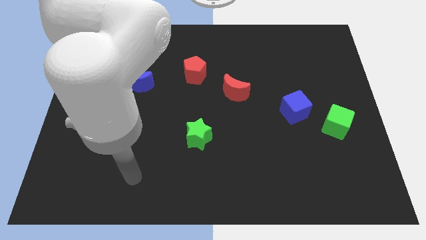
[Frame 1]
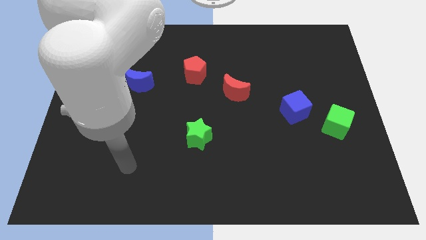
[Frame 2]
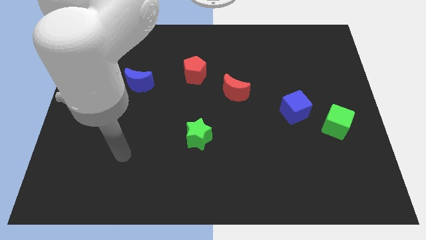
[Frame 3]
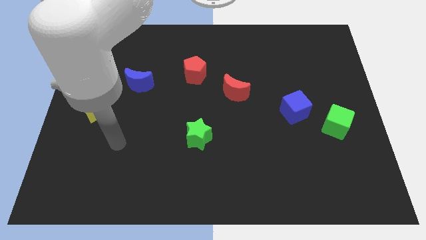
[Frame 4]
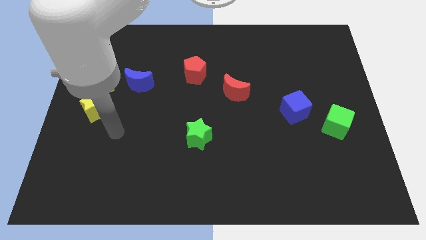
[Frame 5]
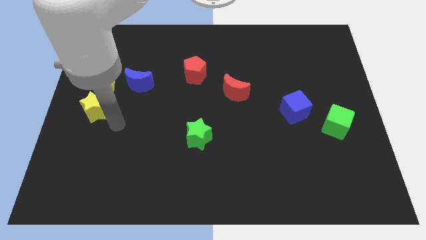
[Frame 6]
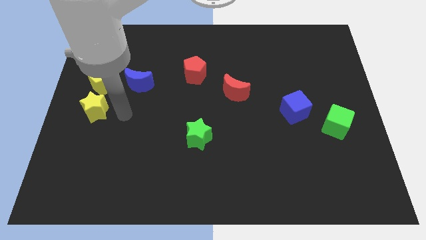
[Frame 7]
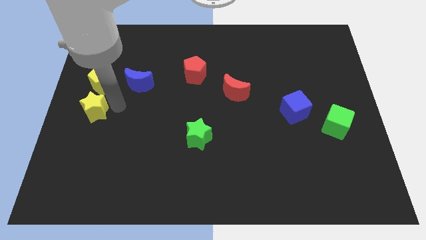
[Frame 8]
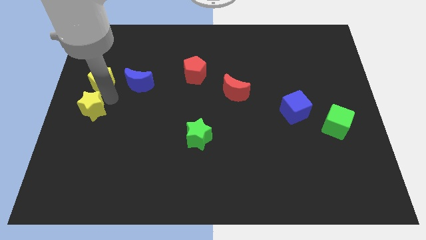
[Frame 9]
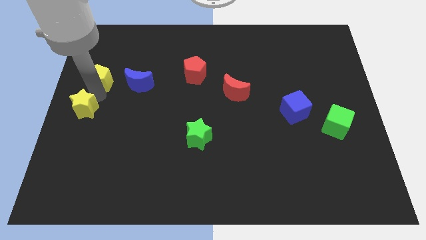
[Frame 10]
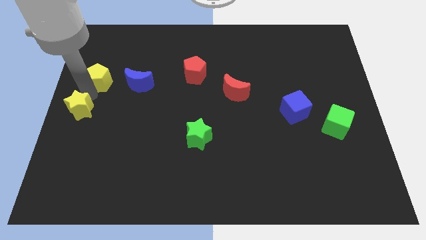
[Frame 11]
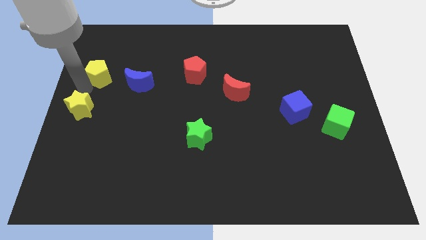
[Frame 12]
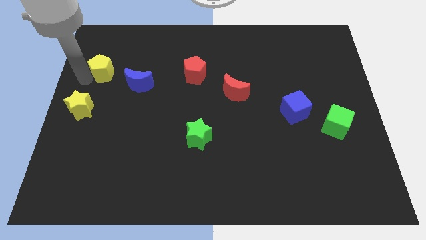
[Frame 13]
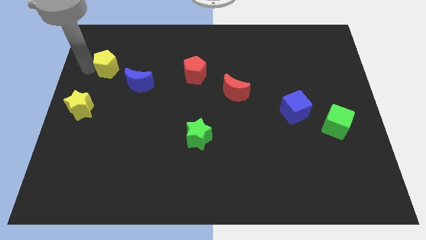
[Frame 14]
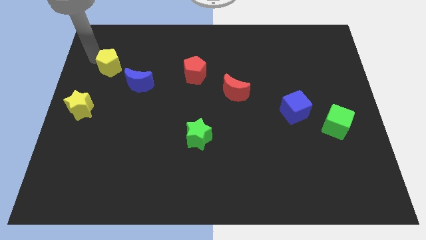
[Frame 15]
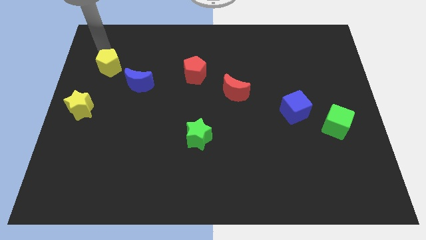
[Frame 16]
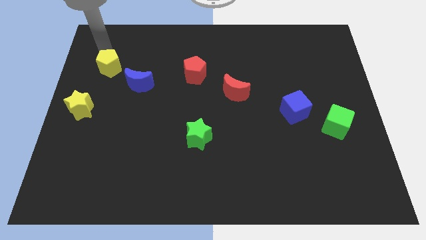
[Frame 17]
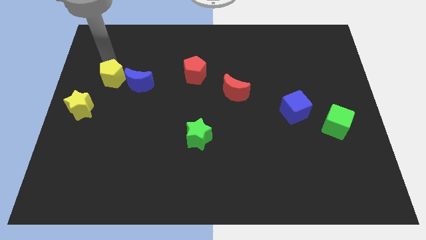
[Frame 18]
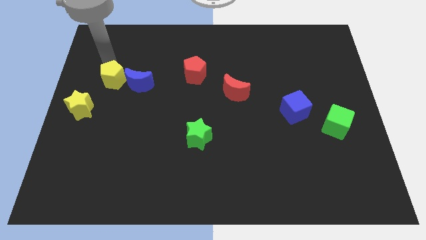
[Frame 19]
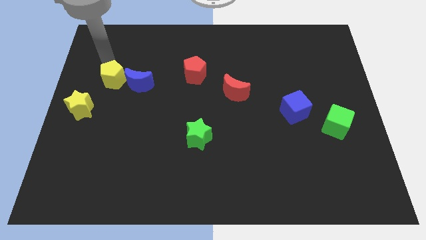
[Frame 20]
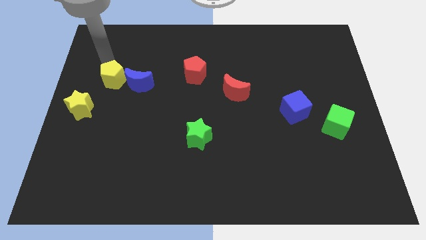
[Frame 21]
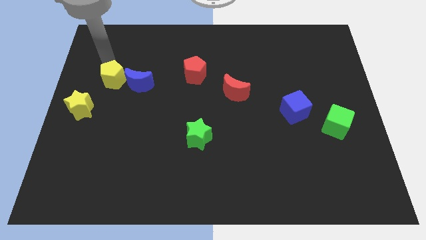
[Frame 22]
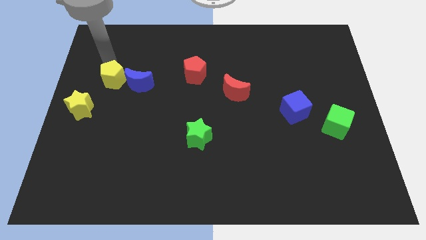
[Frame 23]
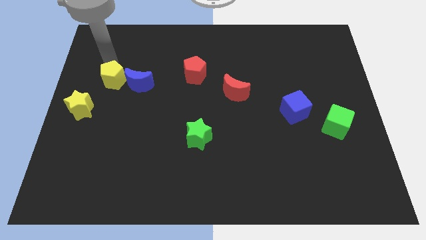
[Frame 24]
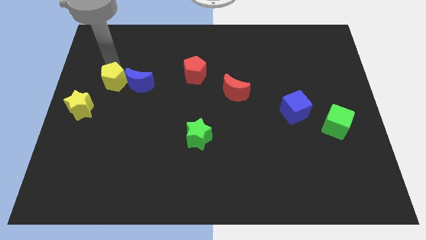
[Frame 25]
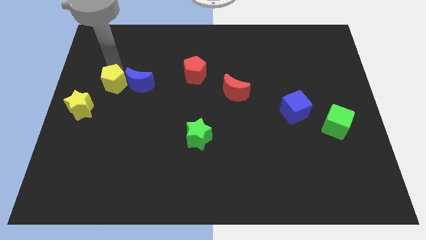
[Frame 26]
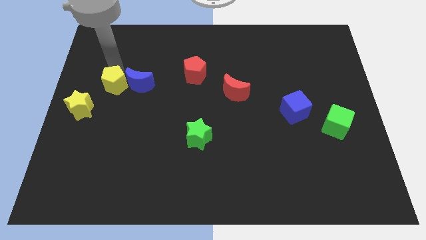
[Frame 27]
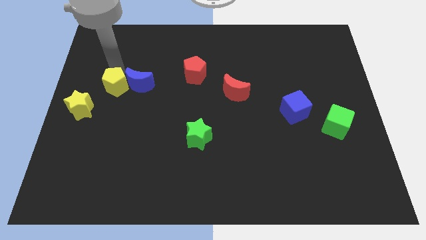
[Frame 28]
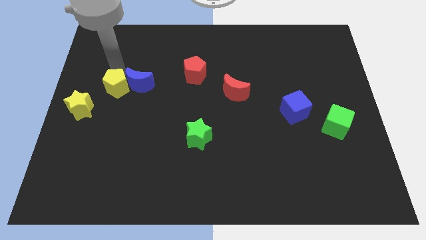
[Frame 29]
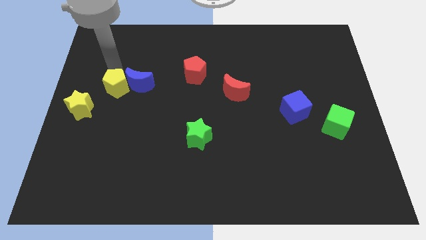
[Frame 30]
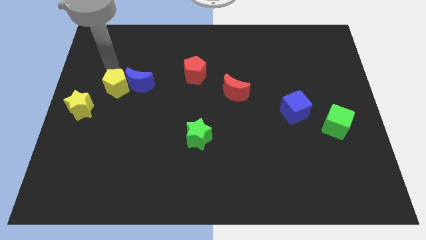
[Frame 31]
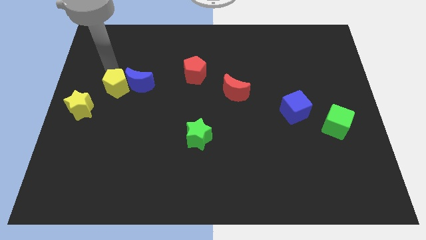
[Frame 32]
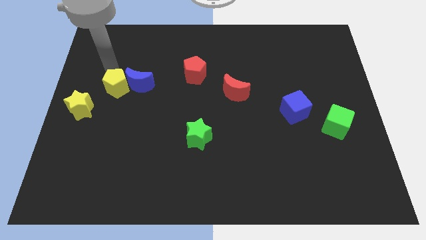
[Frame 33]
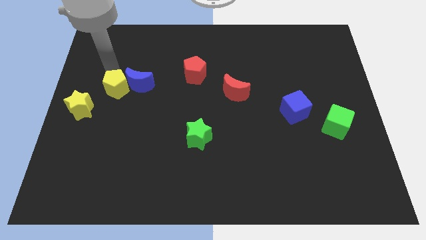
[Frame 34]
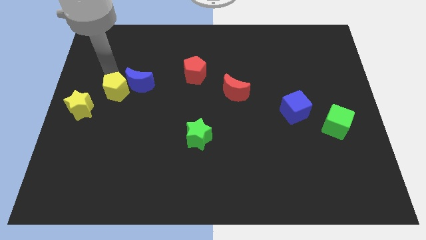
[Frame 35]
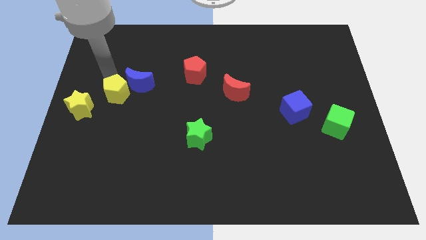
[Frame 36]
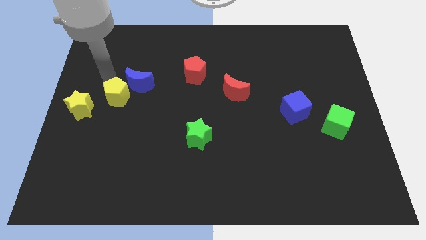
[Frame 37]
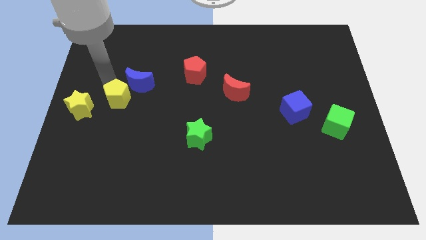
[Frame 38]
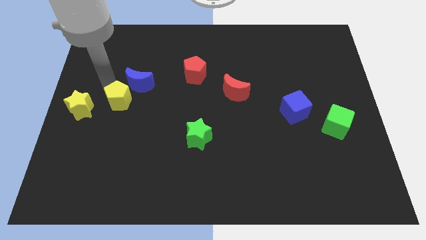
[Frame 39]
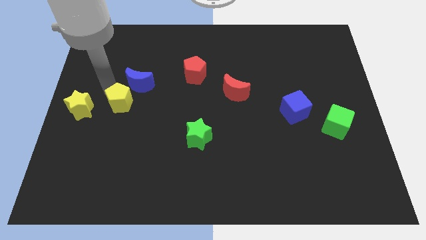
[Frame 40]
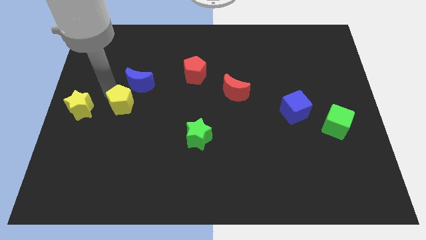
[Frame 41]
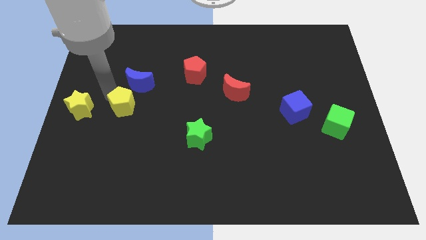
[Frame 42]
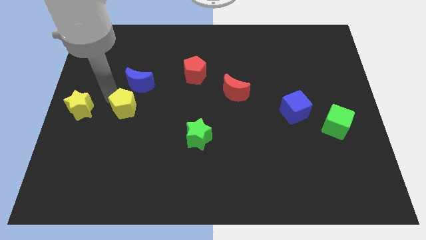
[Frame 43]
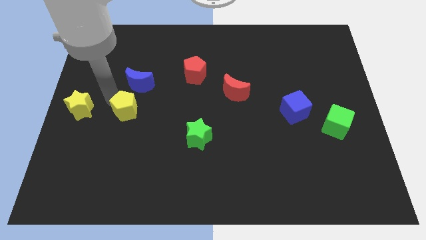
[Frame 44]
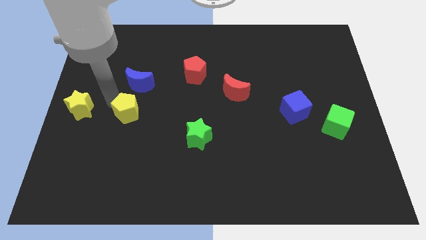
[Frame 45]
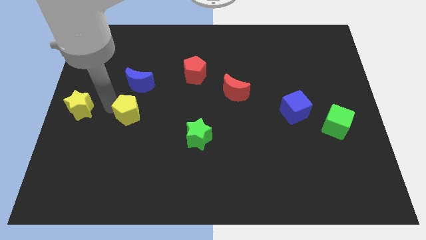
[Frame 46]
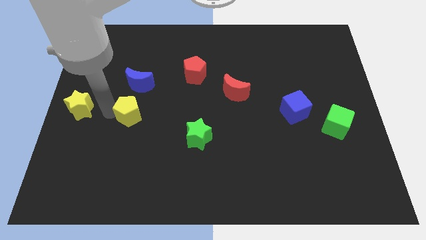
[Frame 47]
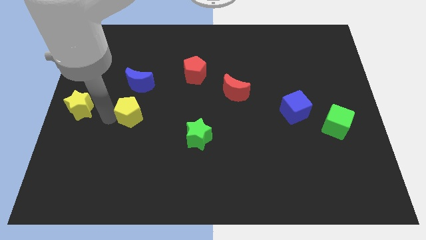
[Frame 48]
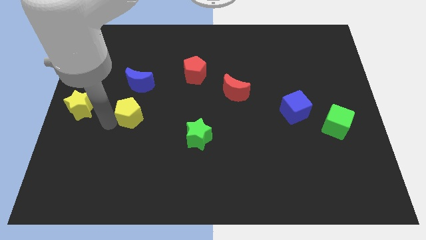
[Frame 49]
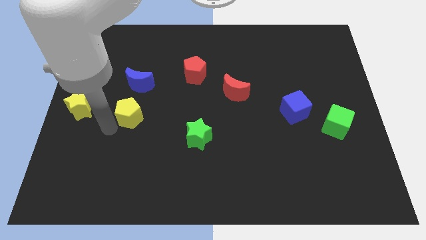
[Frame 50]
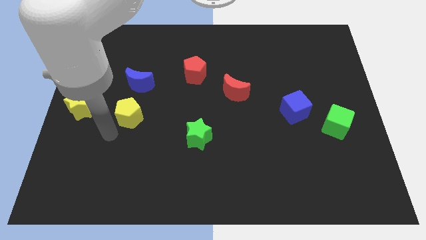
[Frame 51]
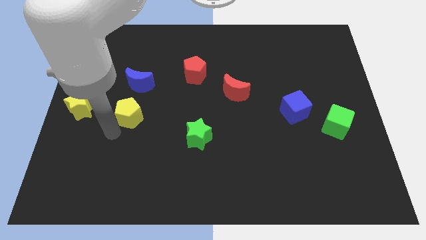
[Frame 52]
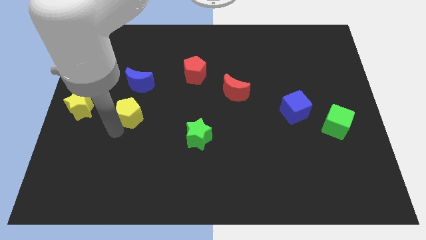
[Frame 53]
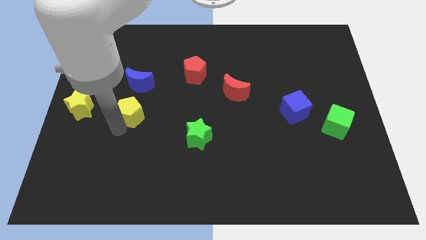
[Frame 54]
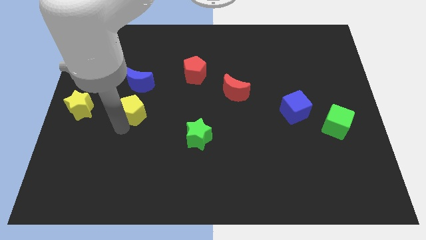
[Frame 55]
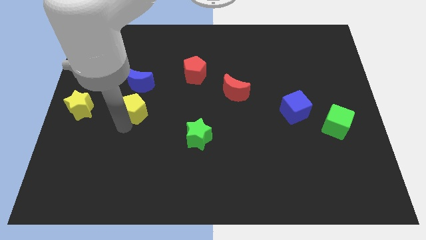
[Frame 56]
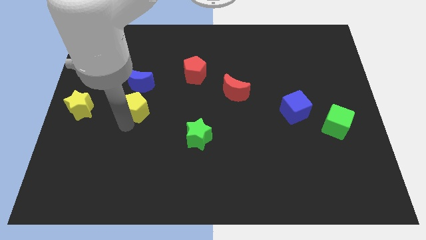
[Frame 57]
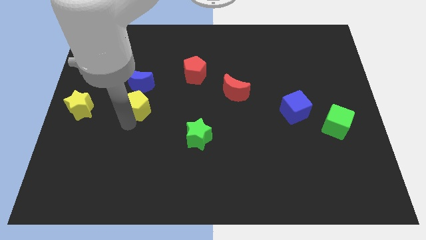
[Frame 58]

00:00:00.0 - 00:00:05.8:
slightly slide the yellow pentagon right

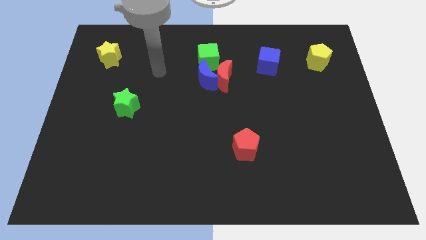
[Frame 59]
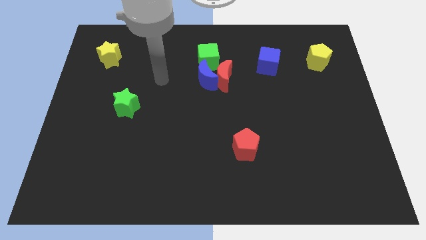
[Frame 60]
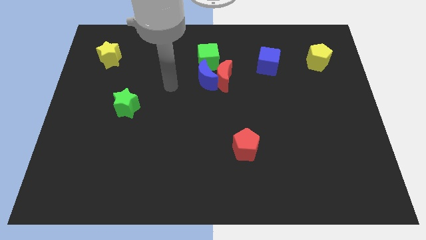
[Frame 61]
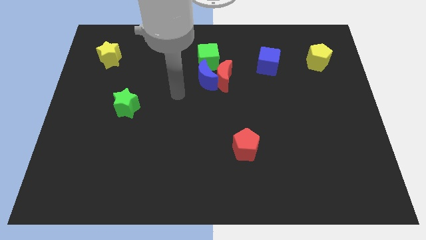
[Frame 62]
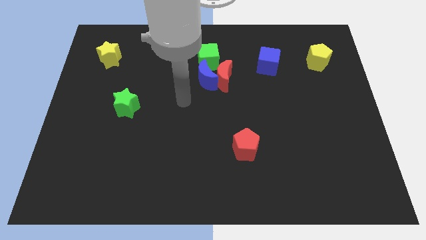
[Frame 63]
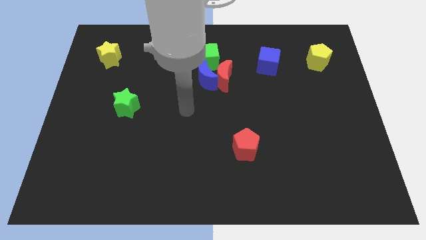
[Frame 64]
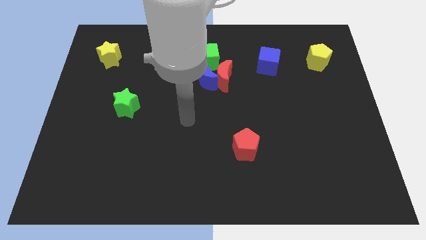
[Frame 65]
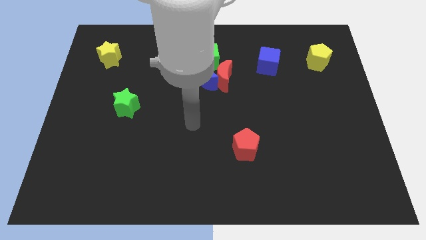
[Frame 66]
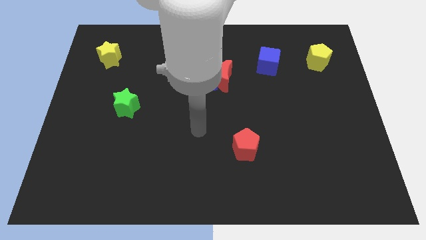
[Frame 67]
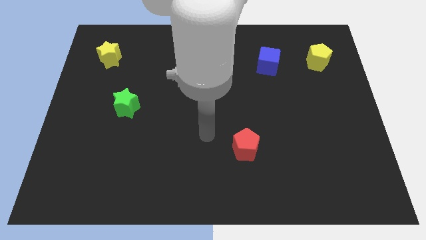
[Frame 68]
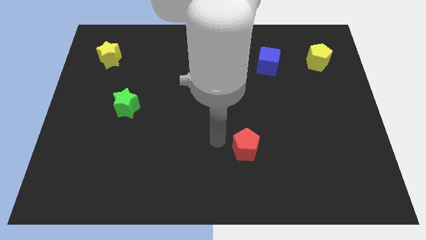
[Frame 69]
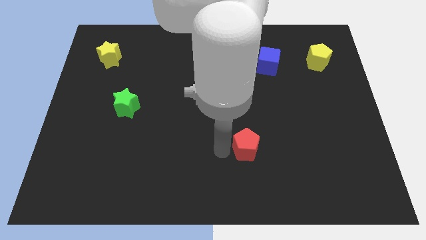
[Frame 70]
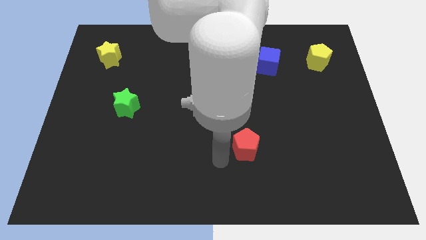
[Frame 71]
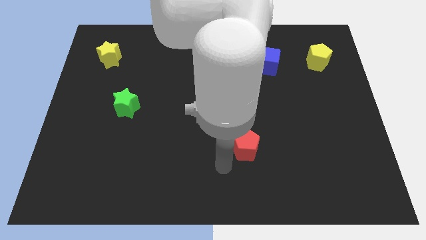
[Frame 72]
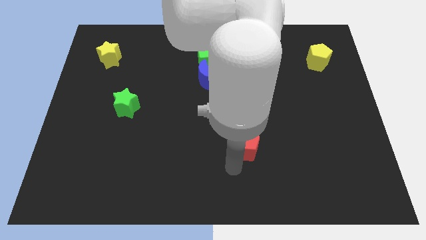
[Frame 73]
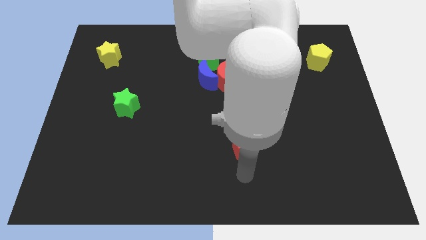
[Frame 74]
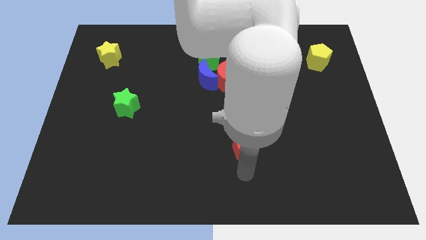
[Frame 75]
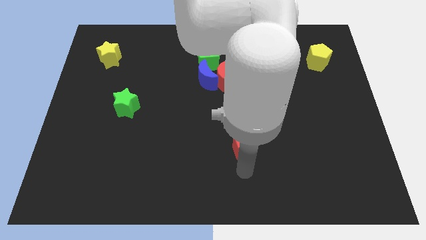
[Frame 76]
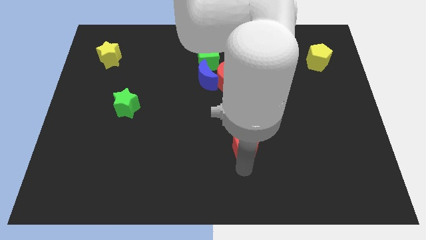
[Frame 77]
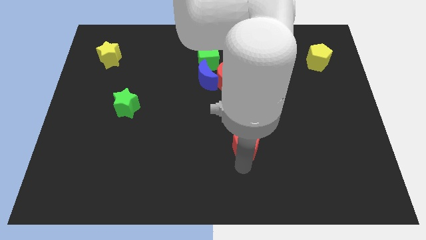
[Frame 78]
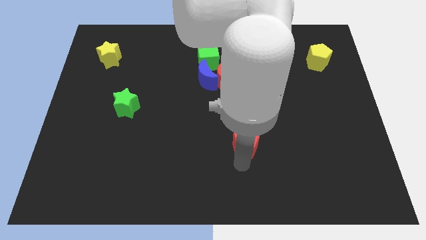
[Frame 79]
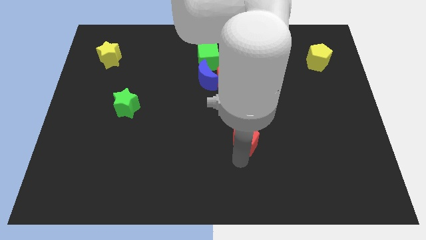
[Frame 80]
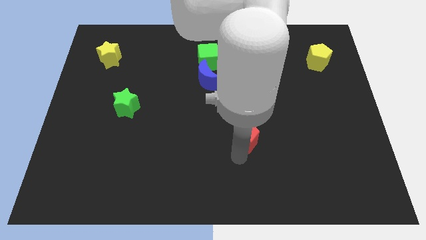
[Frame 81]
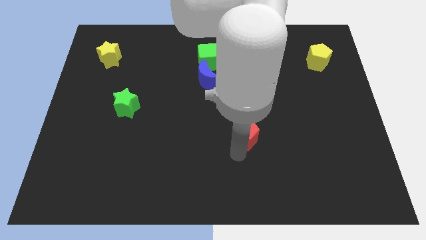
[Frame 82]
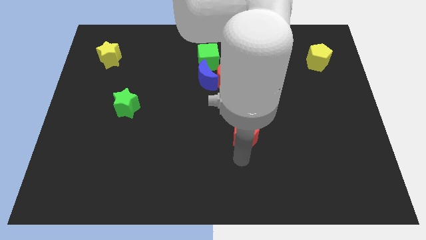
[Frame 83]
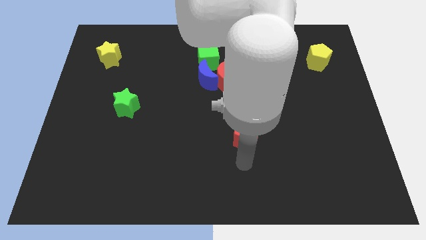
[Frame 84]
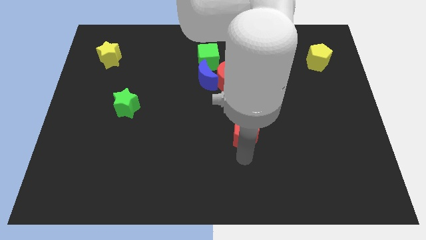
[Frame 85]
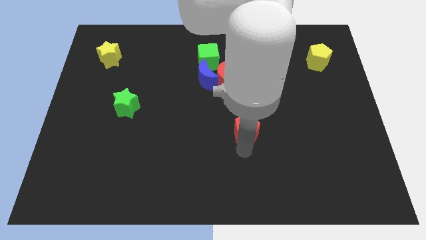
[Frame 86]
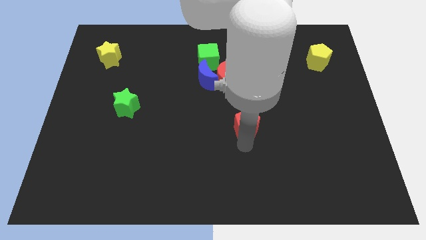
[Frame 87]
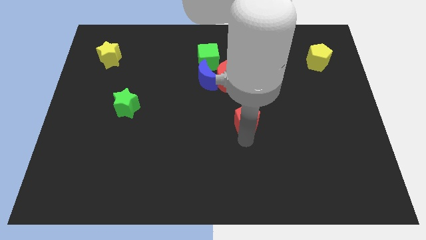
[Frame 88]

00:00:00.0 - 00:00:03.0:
slide the red pentagon upwards somewhat
